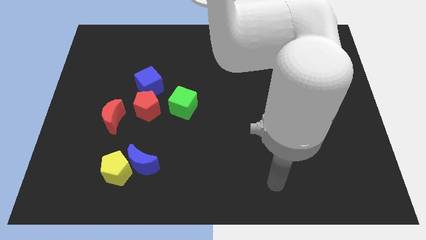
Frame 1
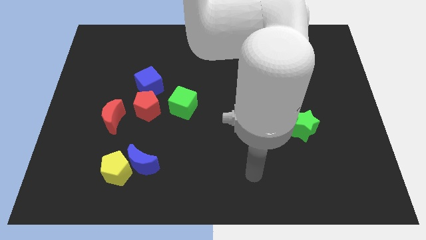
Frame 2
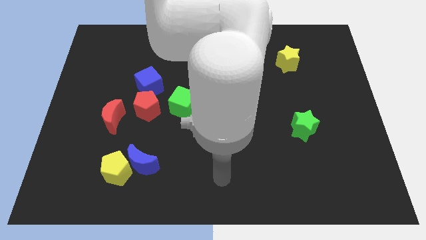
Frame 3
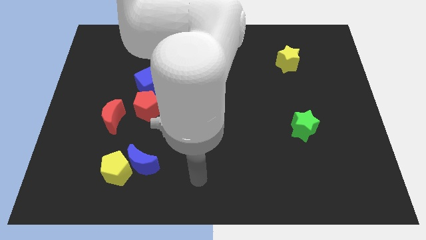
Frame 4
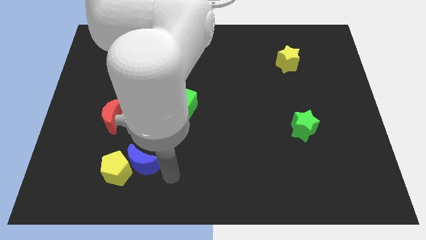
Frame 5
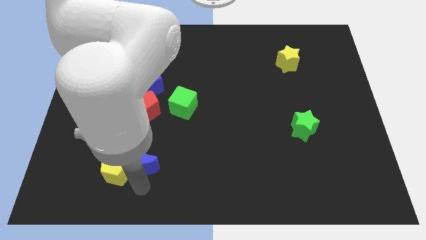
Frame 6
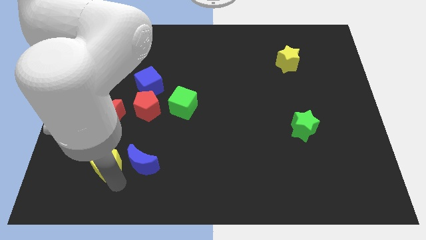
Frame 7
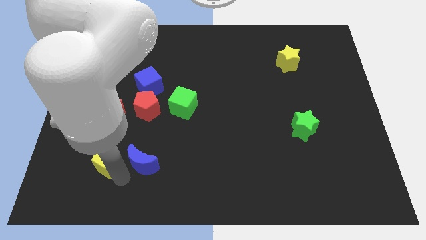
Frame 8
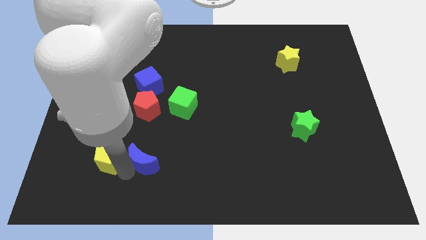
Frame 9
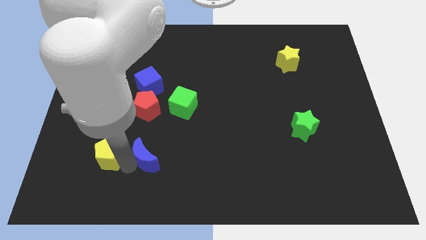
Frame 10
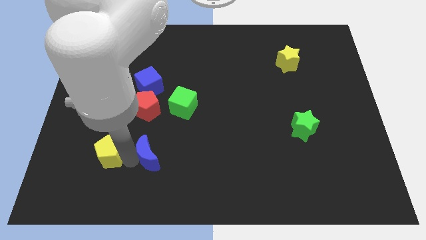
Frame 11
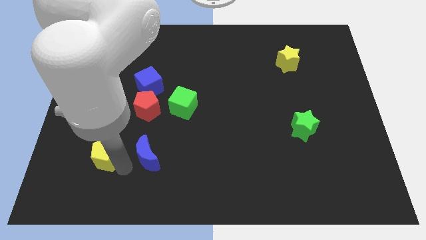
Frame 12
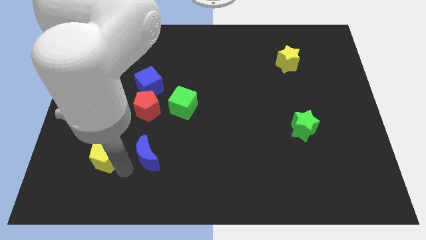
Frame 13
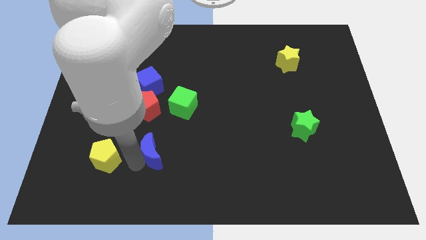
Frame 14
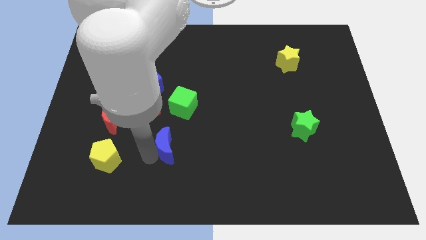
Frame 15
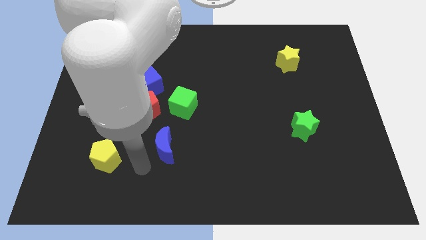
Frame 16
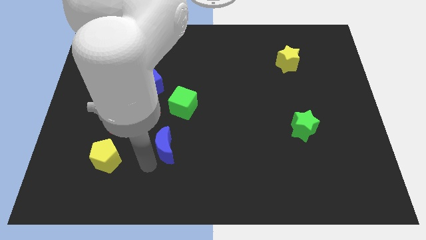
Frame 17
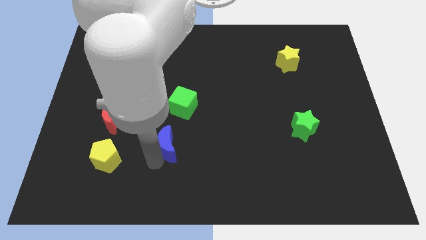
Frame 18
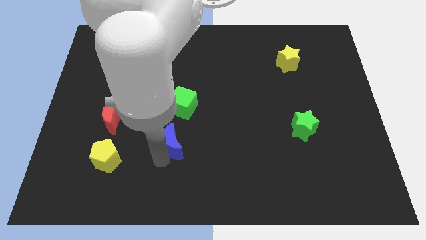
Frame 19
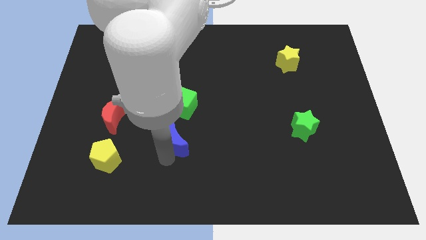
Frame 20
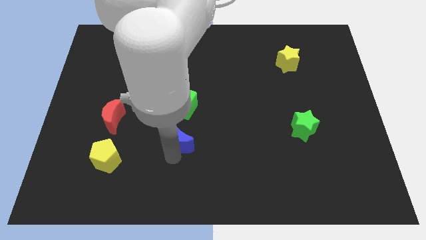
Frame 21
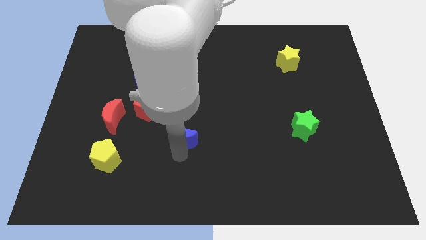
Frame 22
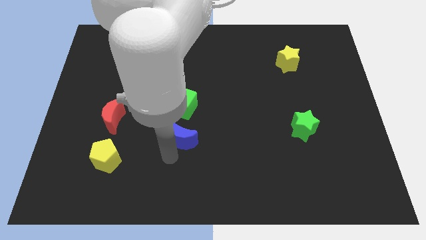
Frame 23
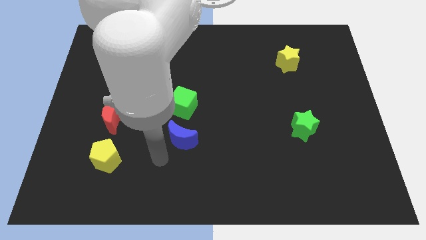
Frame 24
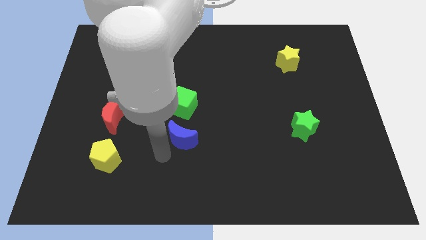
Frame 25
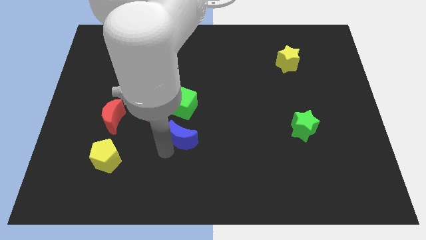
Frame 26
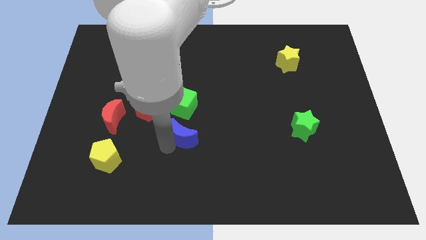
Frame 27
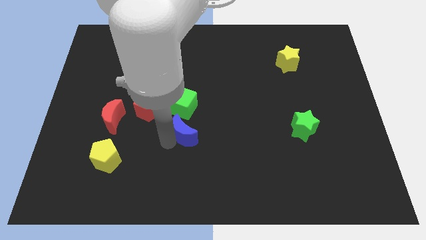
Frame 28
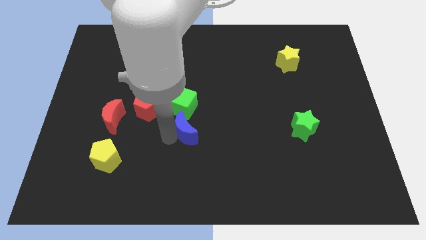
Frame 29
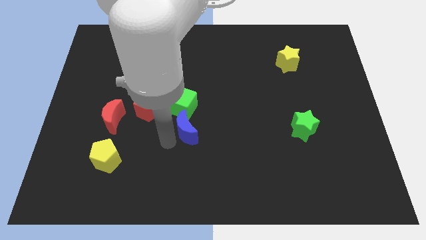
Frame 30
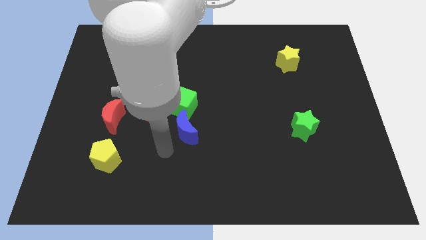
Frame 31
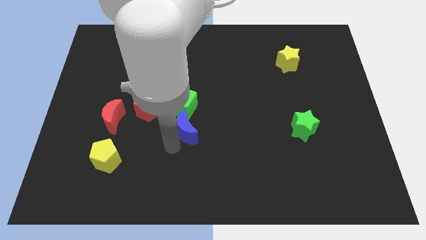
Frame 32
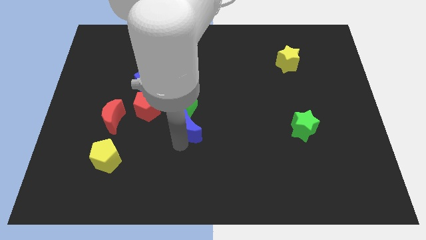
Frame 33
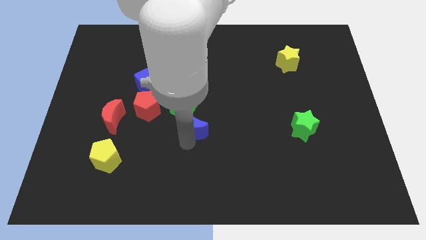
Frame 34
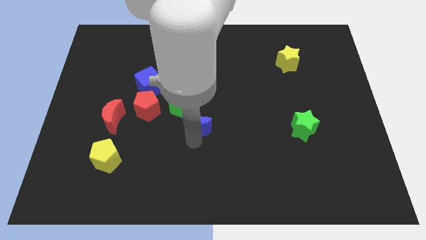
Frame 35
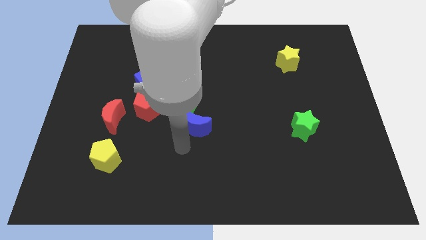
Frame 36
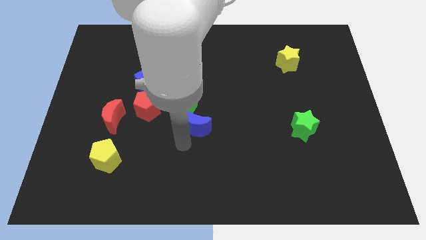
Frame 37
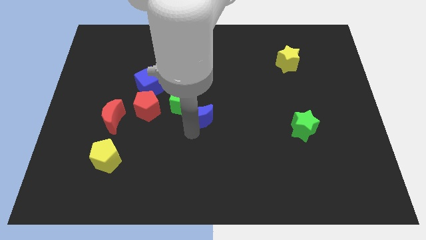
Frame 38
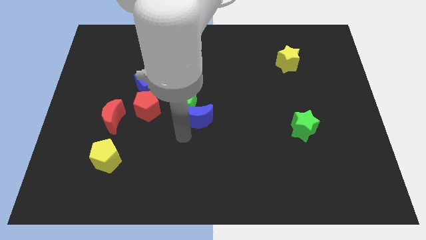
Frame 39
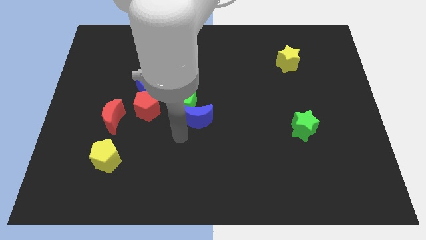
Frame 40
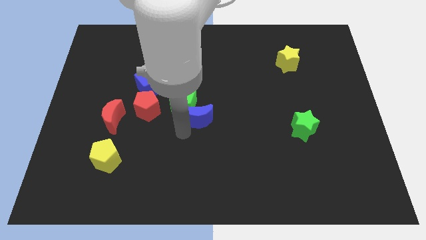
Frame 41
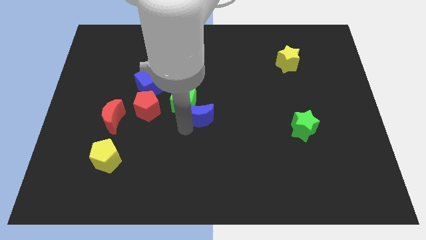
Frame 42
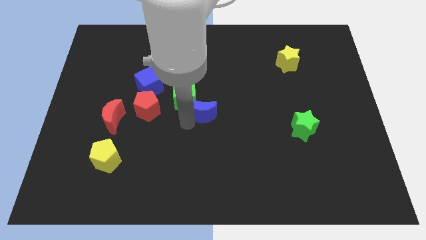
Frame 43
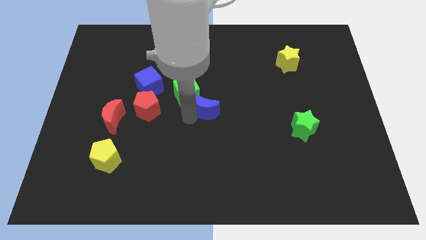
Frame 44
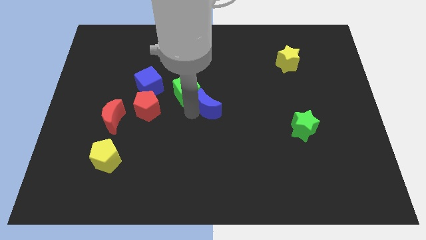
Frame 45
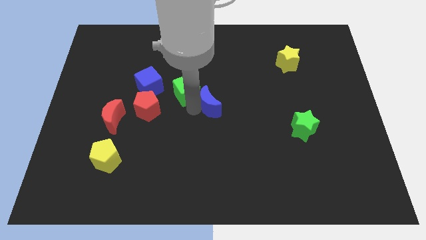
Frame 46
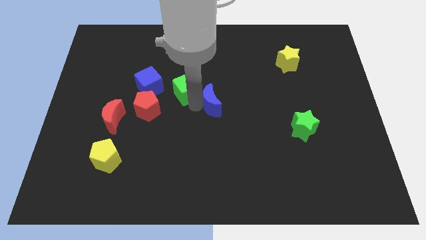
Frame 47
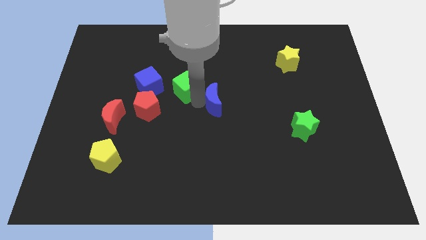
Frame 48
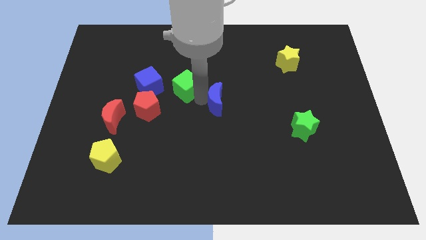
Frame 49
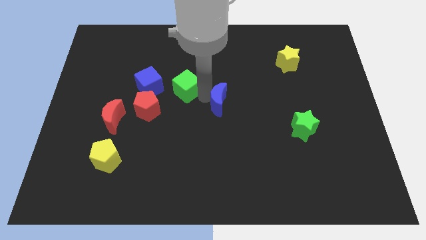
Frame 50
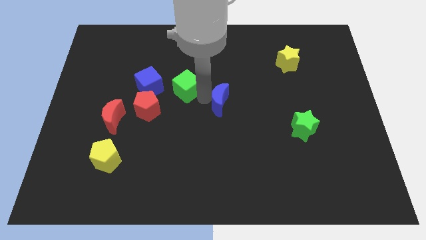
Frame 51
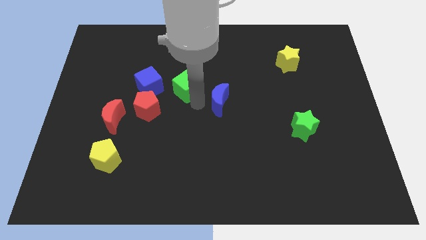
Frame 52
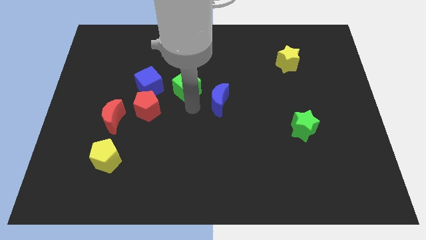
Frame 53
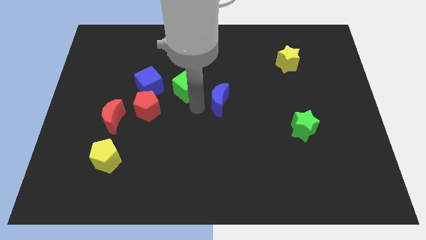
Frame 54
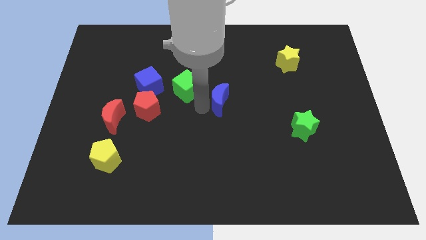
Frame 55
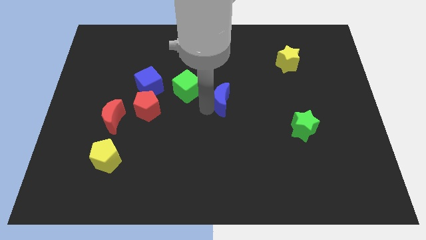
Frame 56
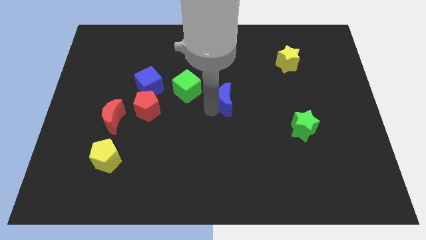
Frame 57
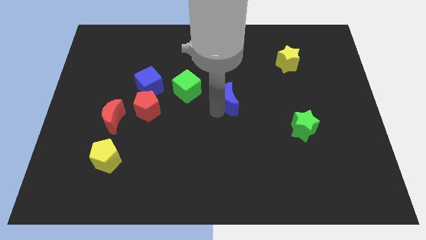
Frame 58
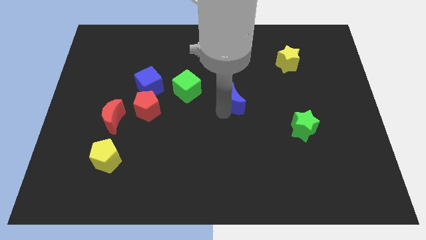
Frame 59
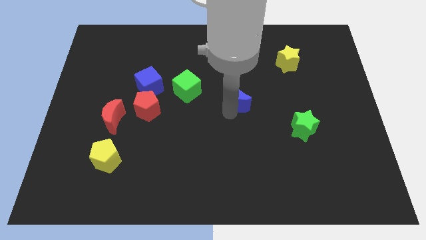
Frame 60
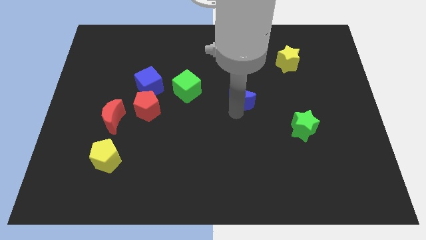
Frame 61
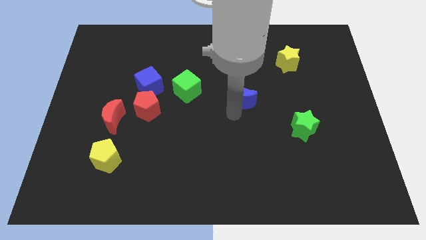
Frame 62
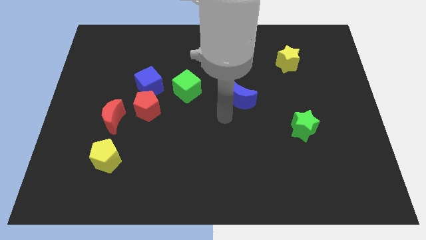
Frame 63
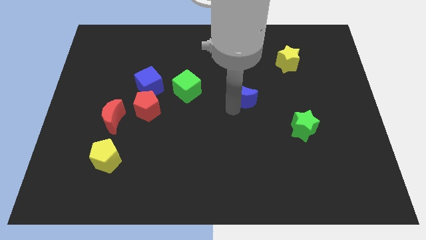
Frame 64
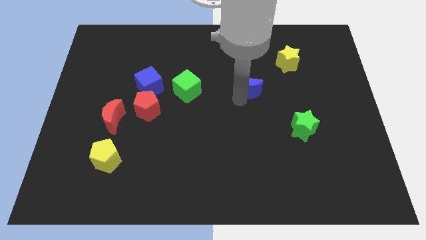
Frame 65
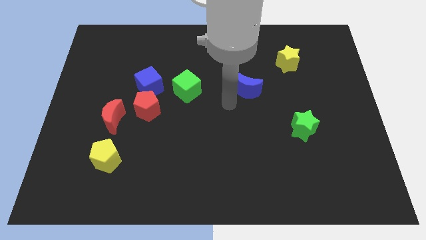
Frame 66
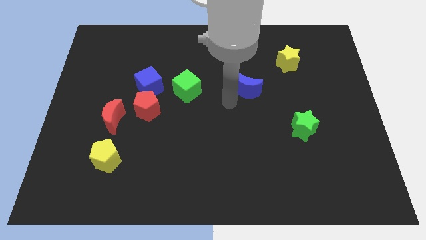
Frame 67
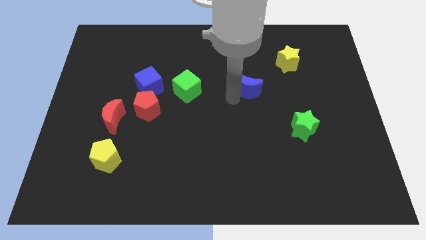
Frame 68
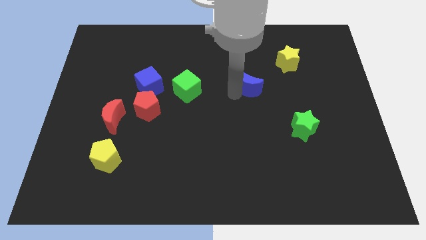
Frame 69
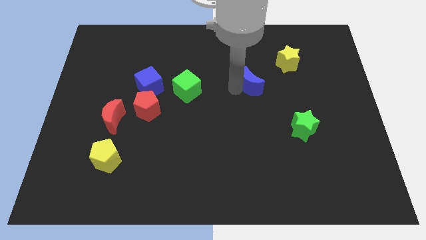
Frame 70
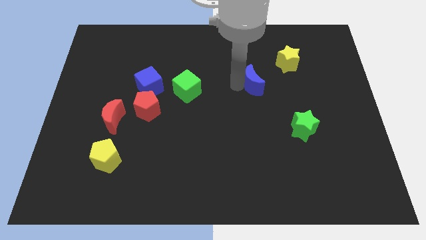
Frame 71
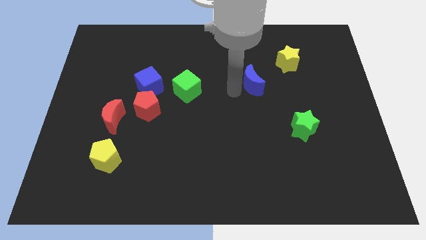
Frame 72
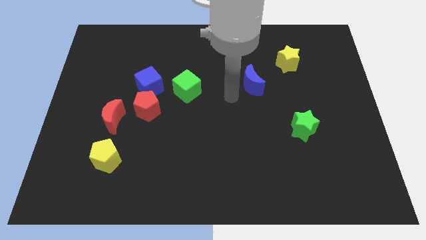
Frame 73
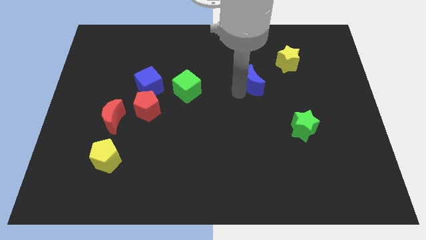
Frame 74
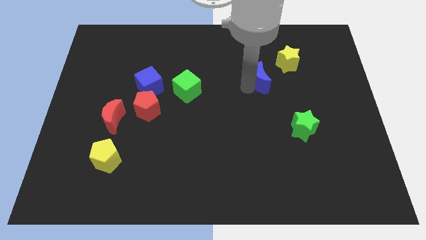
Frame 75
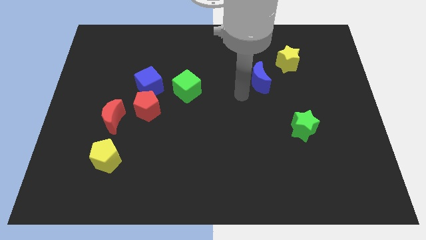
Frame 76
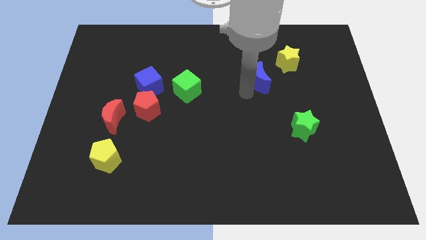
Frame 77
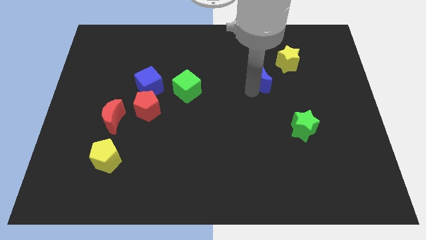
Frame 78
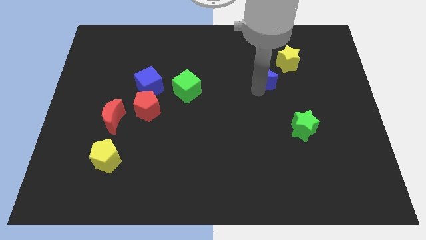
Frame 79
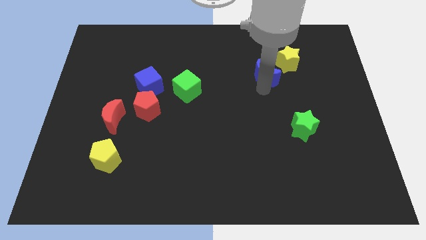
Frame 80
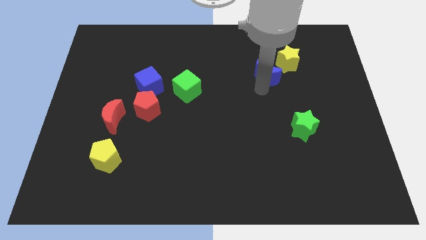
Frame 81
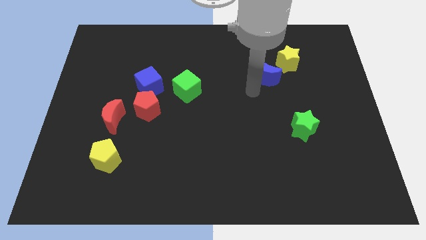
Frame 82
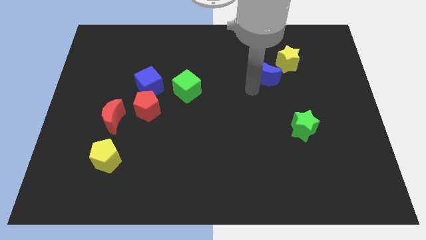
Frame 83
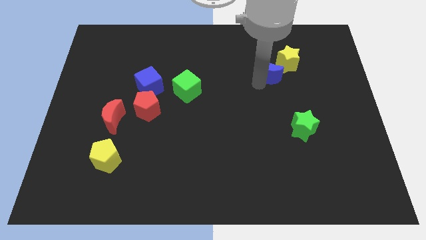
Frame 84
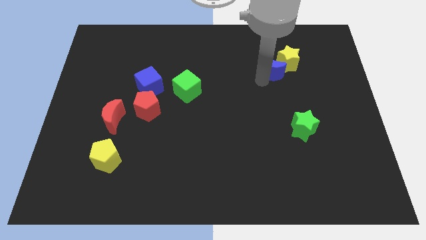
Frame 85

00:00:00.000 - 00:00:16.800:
slide the blue moon next to the yellow star
